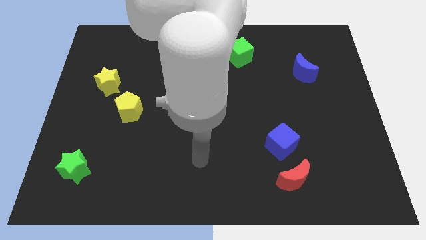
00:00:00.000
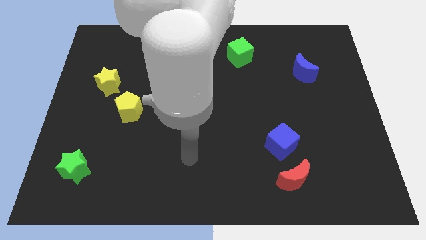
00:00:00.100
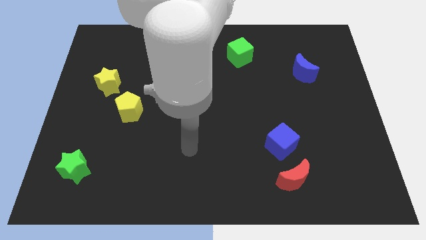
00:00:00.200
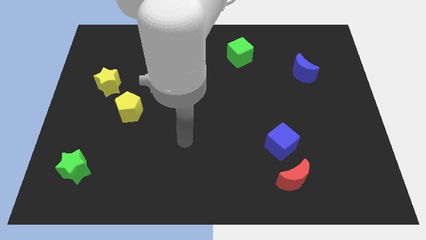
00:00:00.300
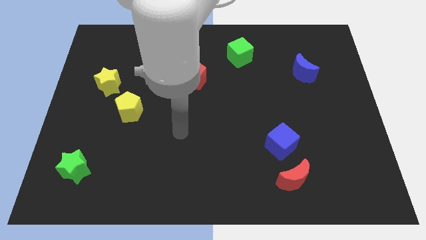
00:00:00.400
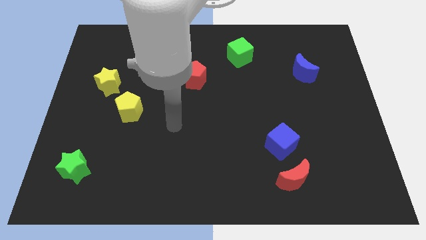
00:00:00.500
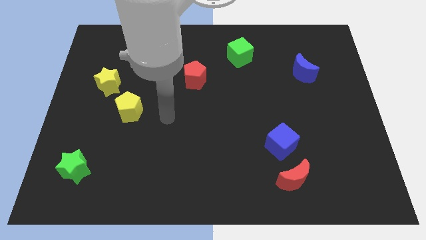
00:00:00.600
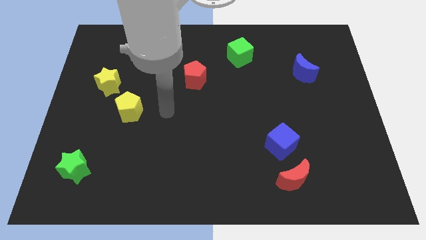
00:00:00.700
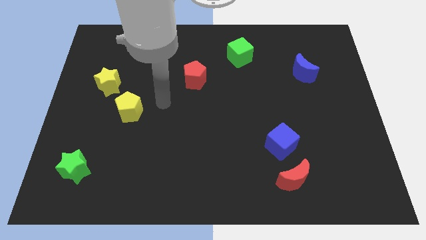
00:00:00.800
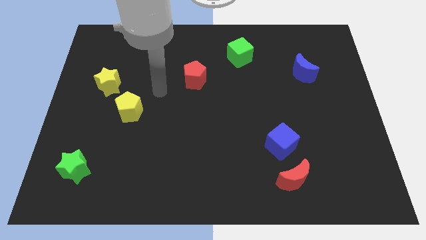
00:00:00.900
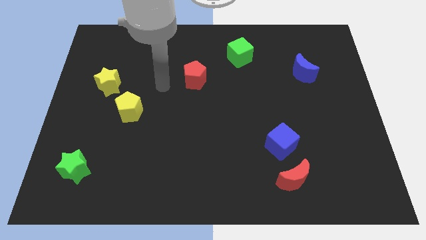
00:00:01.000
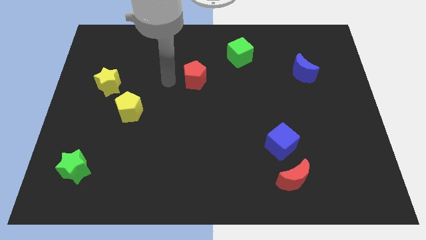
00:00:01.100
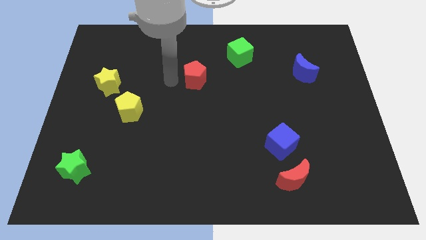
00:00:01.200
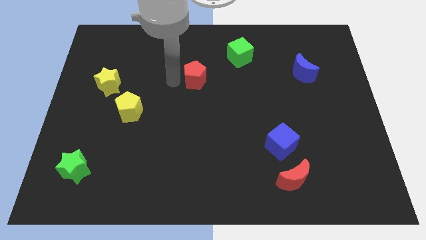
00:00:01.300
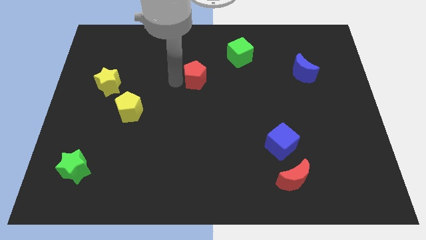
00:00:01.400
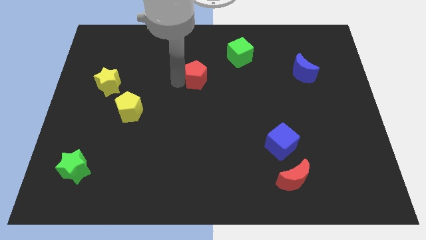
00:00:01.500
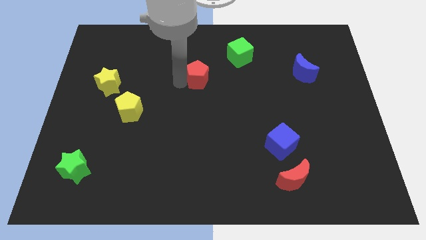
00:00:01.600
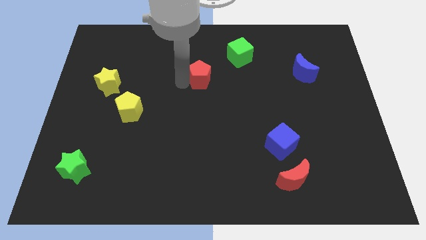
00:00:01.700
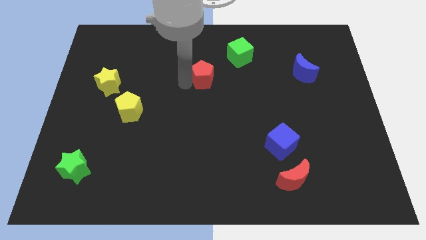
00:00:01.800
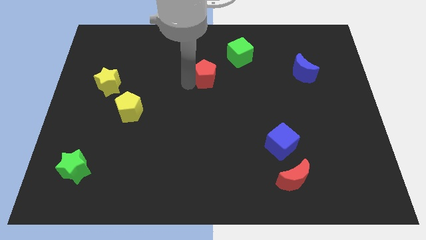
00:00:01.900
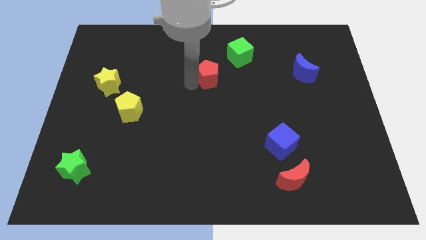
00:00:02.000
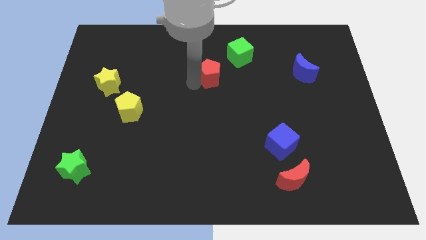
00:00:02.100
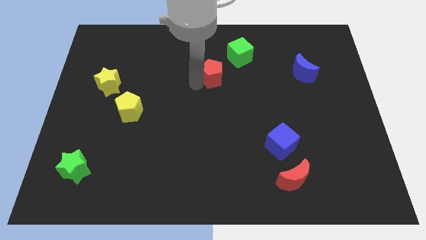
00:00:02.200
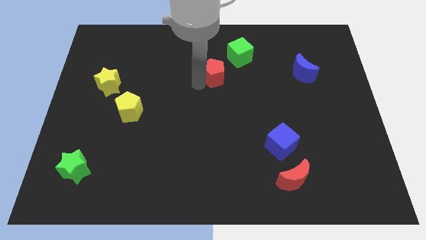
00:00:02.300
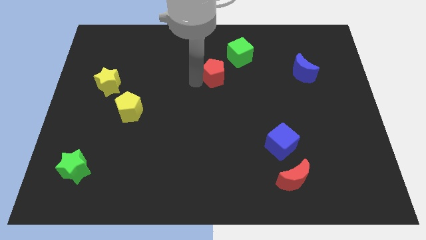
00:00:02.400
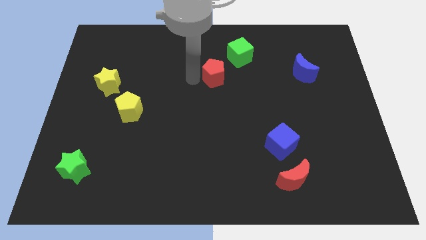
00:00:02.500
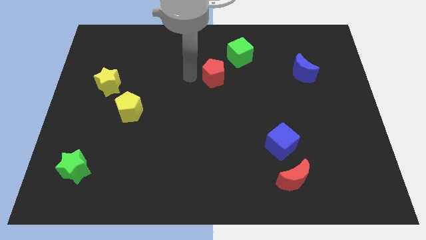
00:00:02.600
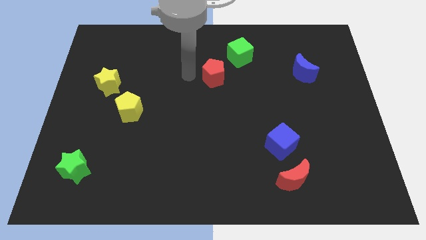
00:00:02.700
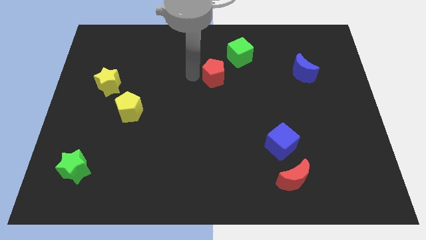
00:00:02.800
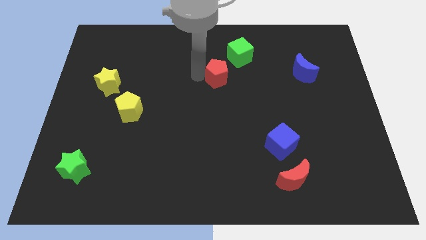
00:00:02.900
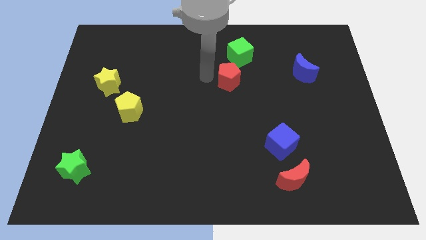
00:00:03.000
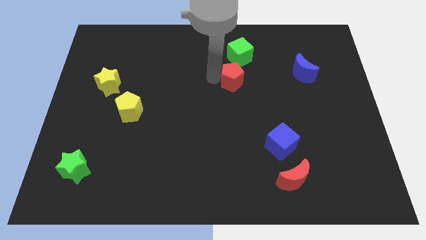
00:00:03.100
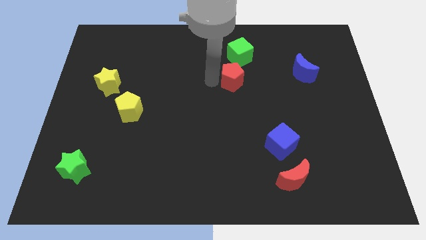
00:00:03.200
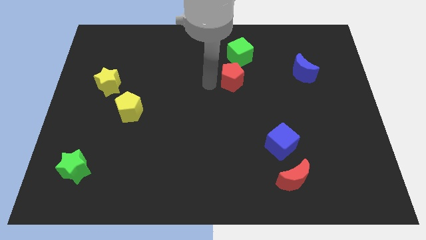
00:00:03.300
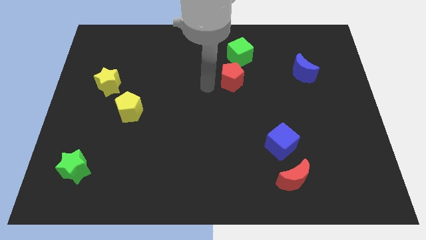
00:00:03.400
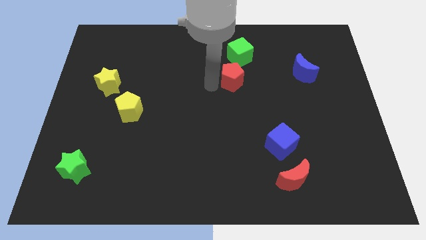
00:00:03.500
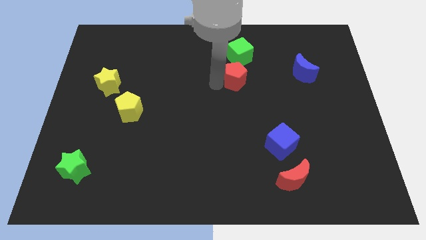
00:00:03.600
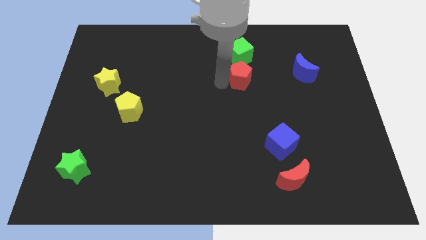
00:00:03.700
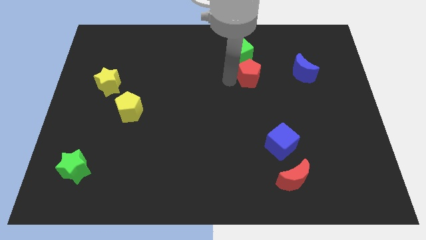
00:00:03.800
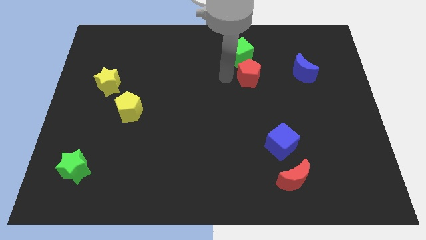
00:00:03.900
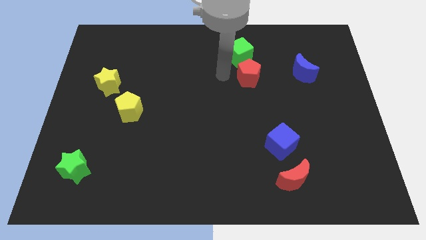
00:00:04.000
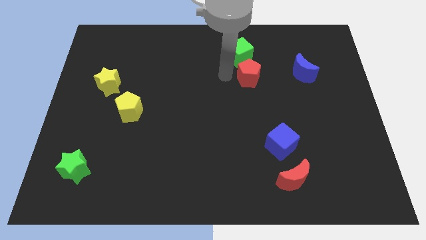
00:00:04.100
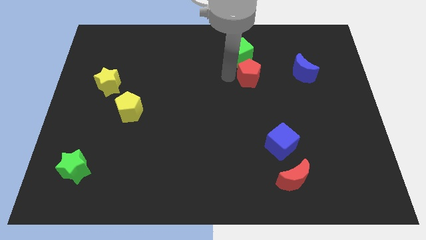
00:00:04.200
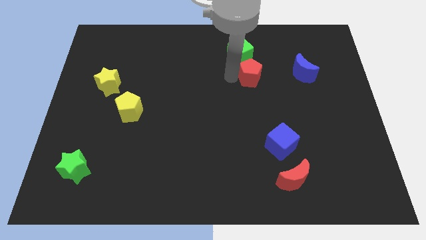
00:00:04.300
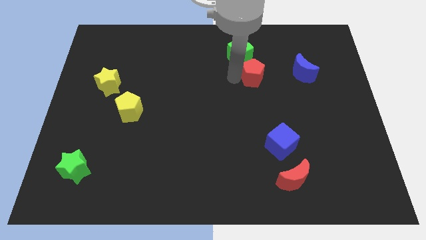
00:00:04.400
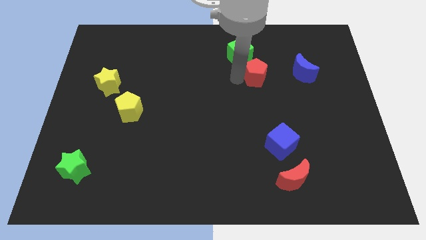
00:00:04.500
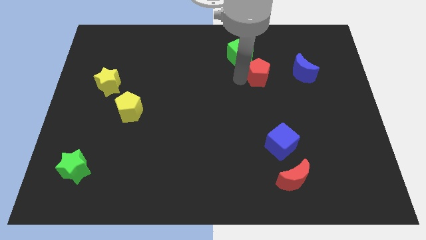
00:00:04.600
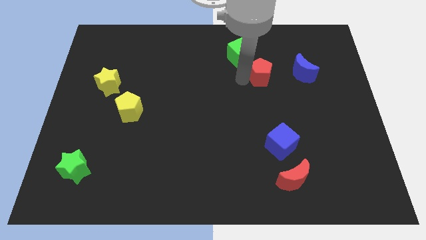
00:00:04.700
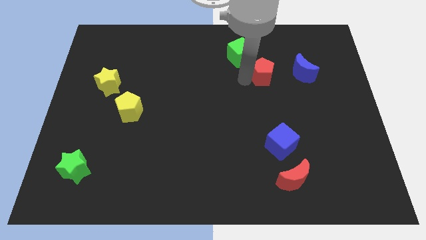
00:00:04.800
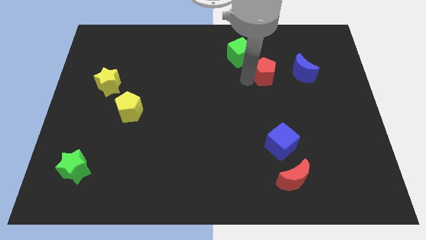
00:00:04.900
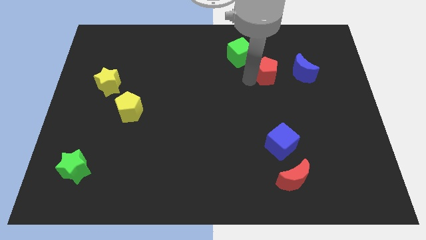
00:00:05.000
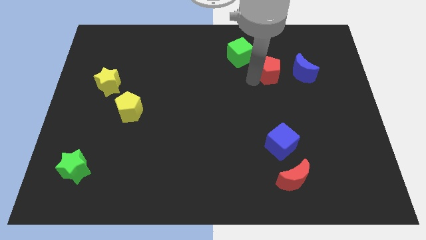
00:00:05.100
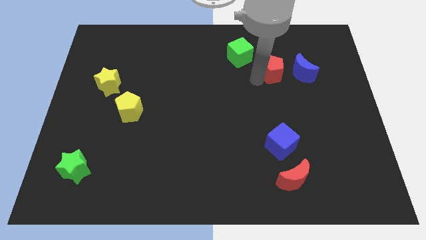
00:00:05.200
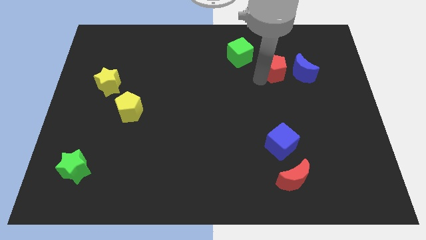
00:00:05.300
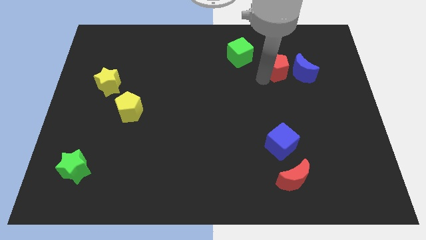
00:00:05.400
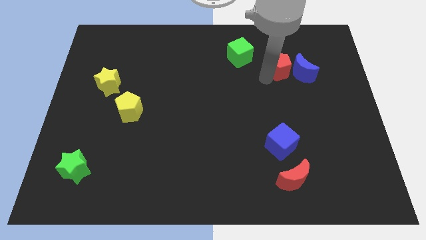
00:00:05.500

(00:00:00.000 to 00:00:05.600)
push the red pentagon close to the blue moon

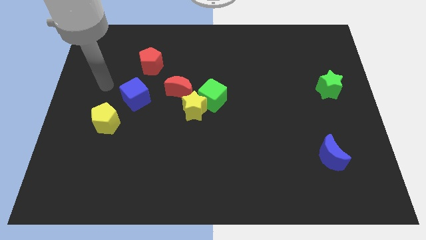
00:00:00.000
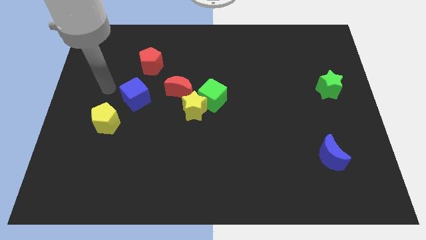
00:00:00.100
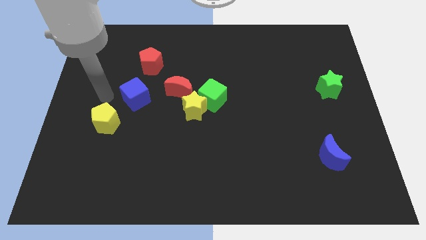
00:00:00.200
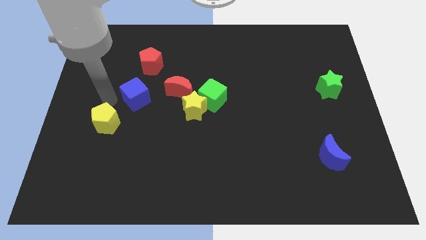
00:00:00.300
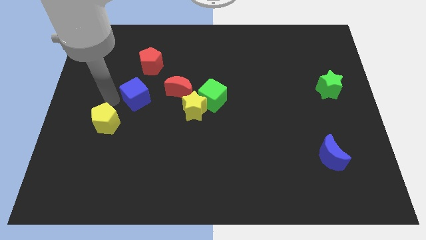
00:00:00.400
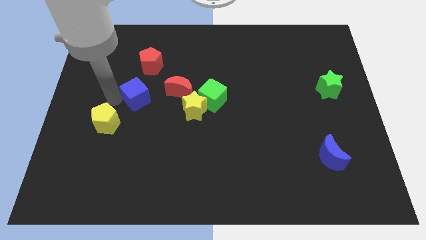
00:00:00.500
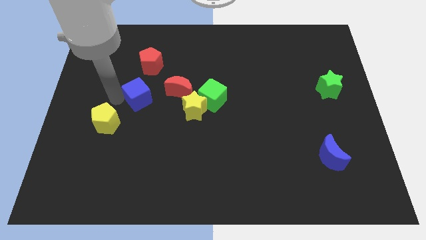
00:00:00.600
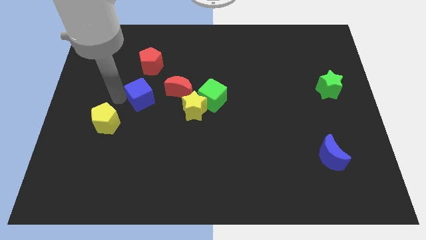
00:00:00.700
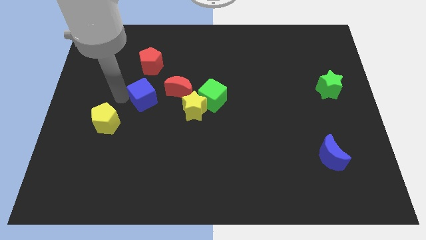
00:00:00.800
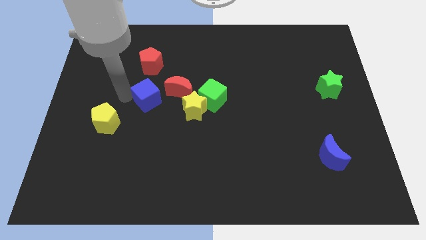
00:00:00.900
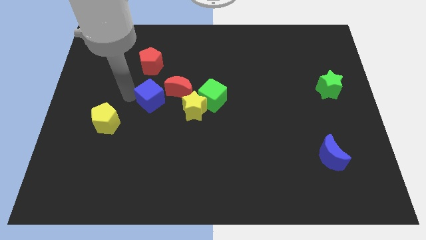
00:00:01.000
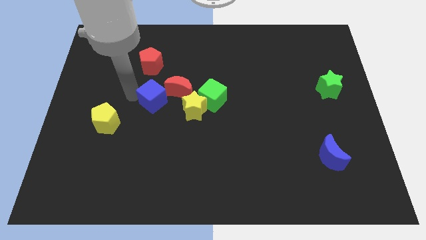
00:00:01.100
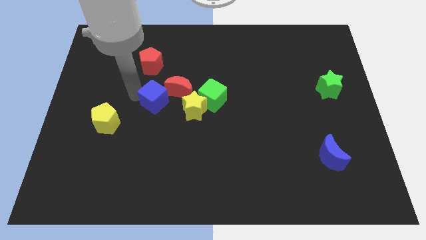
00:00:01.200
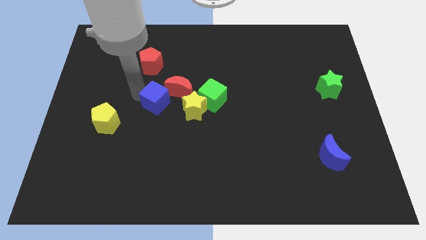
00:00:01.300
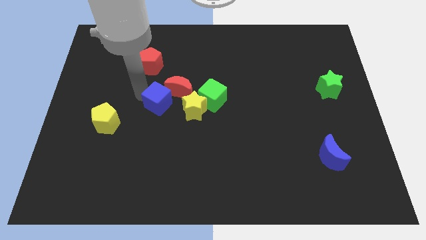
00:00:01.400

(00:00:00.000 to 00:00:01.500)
slide the blue cube to the red moon
